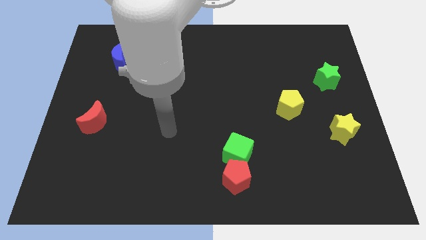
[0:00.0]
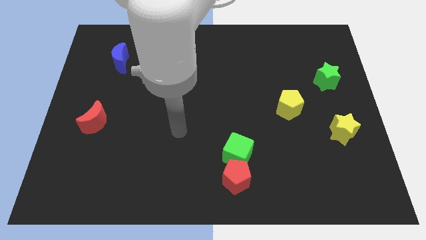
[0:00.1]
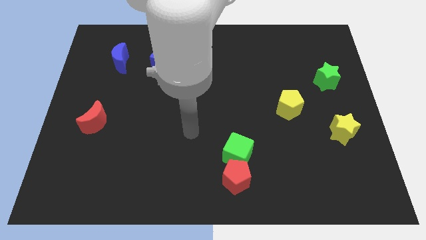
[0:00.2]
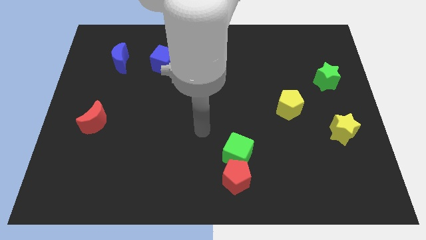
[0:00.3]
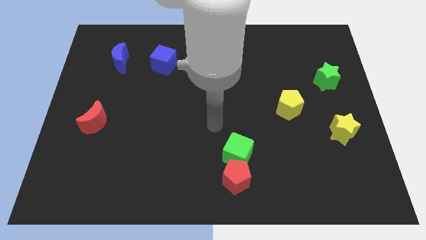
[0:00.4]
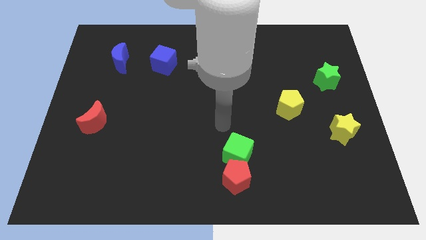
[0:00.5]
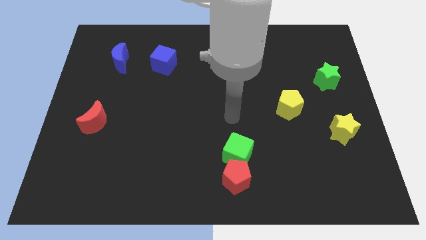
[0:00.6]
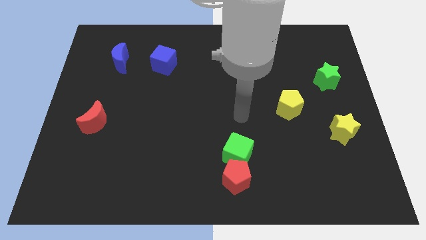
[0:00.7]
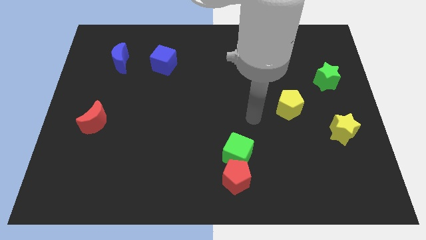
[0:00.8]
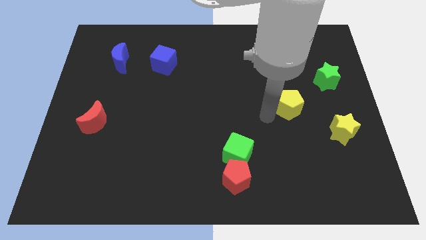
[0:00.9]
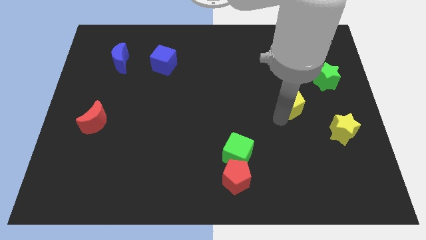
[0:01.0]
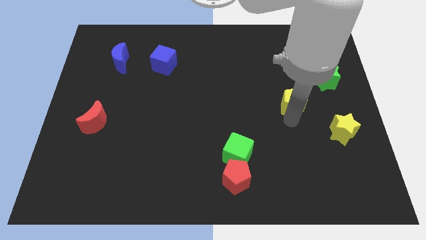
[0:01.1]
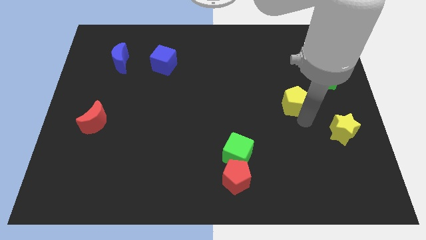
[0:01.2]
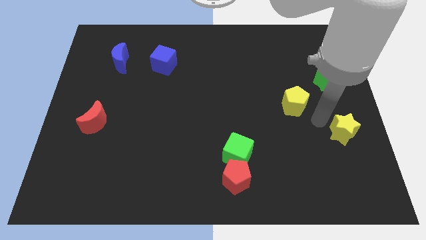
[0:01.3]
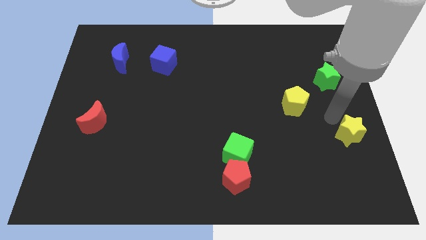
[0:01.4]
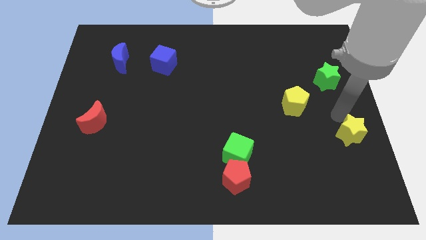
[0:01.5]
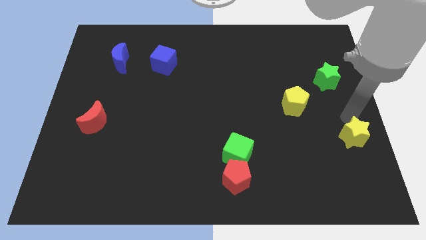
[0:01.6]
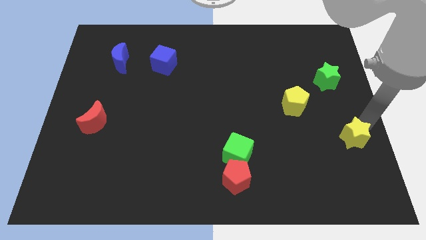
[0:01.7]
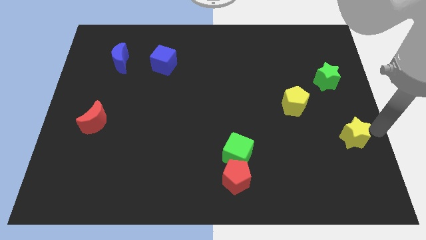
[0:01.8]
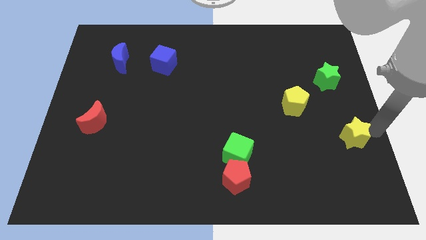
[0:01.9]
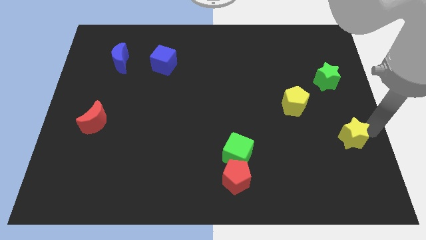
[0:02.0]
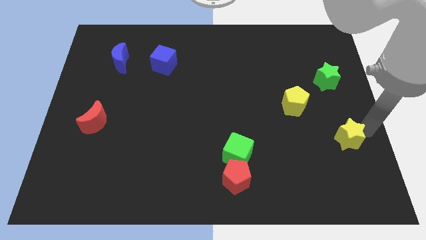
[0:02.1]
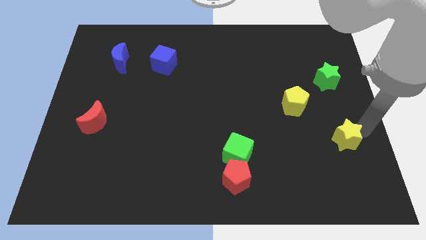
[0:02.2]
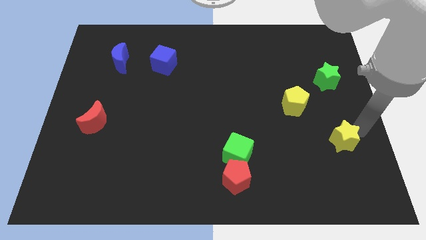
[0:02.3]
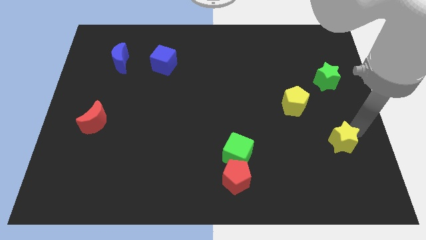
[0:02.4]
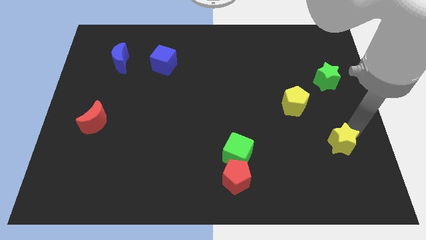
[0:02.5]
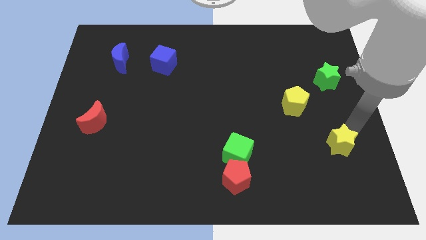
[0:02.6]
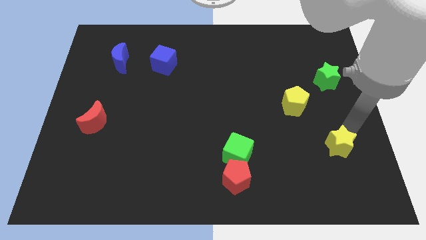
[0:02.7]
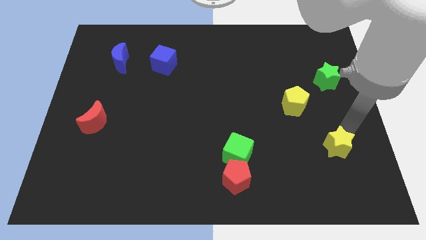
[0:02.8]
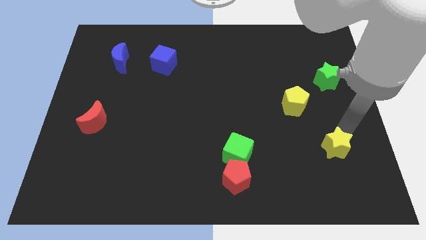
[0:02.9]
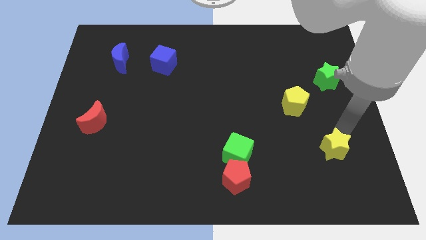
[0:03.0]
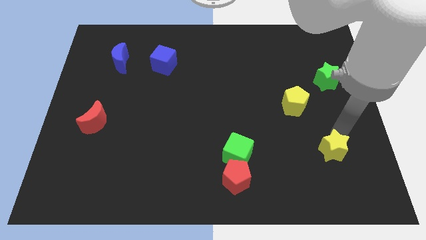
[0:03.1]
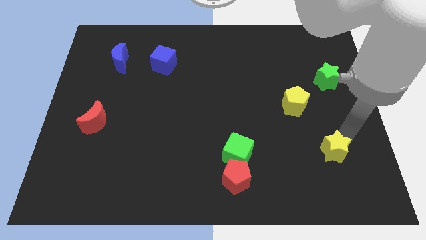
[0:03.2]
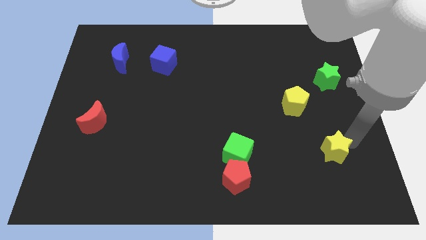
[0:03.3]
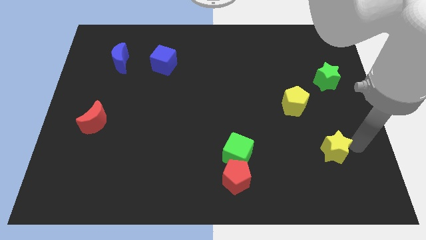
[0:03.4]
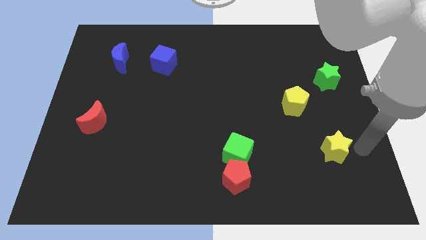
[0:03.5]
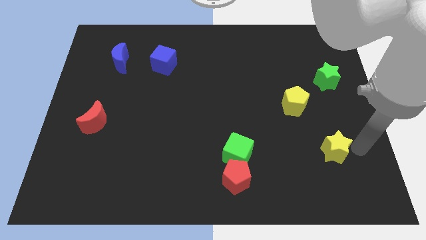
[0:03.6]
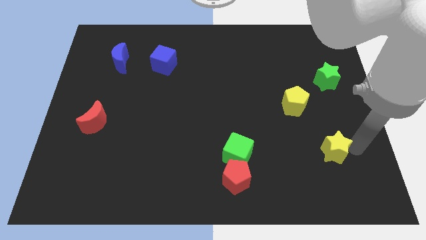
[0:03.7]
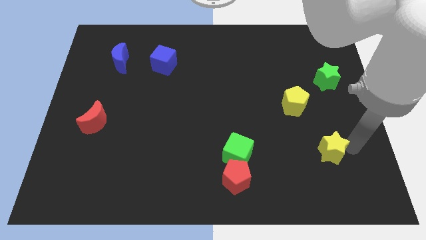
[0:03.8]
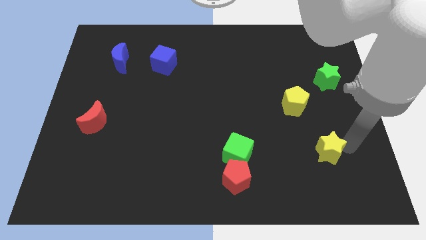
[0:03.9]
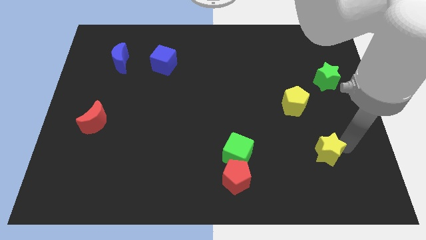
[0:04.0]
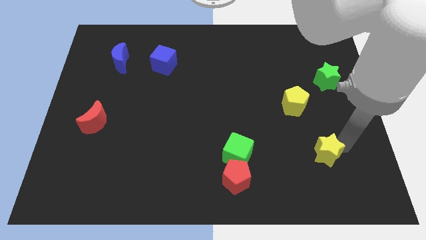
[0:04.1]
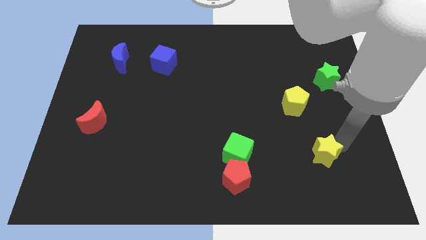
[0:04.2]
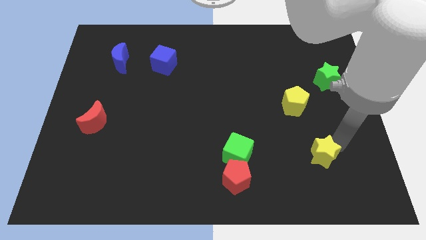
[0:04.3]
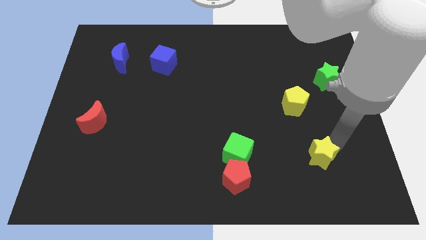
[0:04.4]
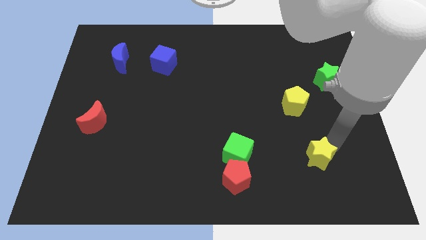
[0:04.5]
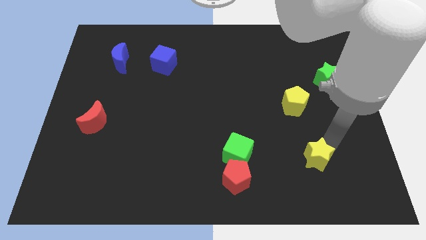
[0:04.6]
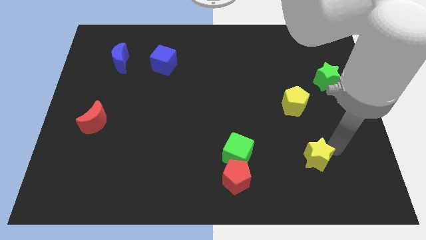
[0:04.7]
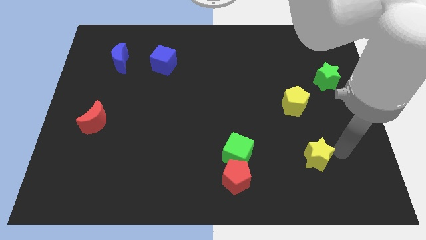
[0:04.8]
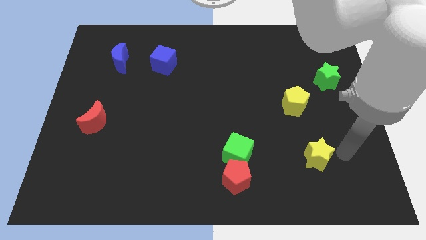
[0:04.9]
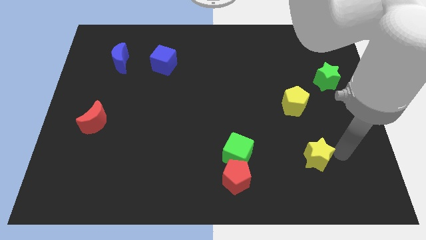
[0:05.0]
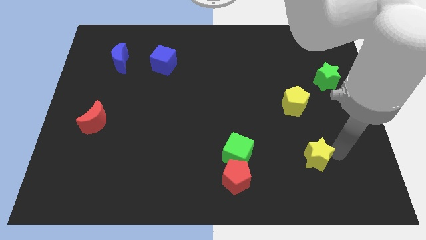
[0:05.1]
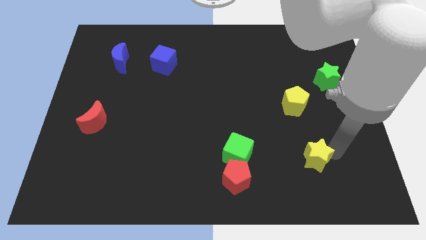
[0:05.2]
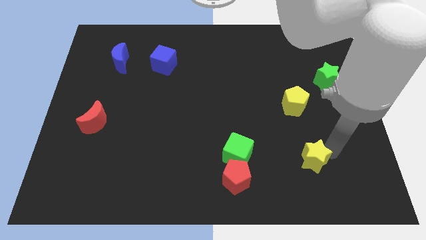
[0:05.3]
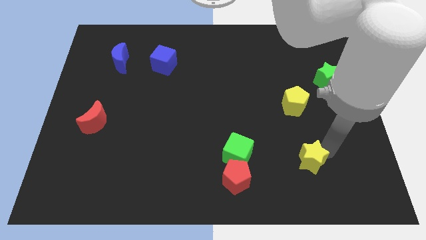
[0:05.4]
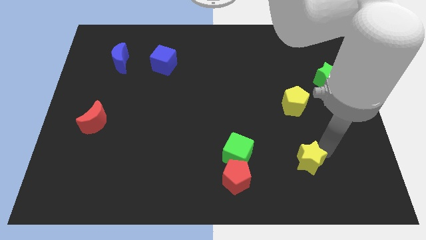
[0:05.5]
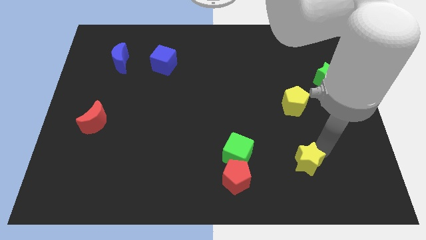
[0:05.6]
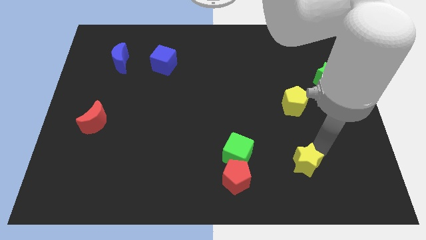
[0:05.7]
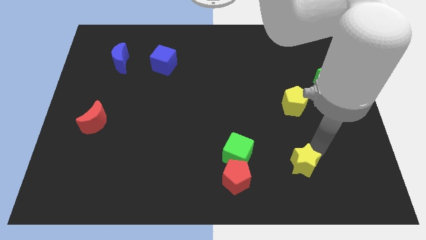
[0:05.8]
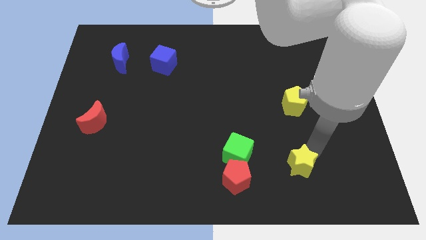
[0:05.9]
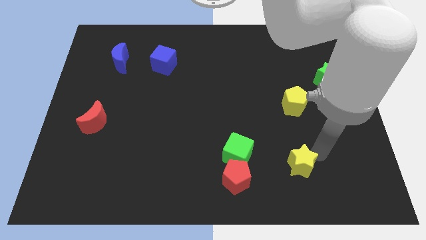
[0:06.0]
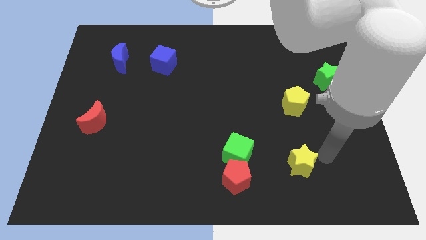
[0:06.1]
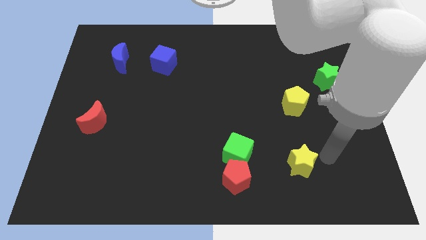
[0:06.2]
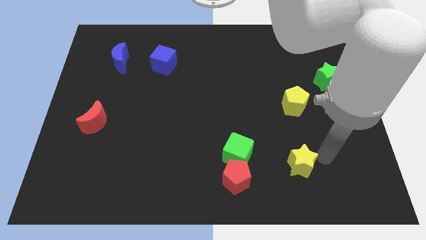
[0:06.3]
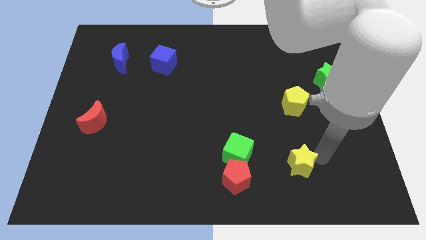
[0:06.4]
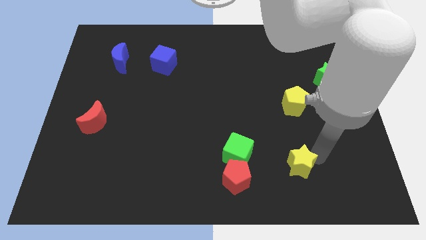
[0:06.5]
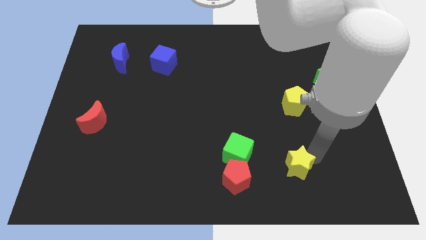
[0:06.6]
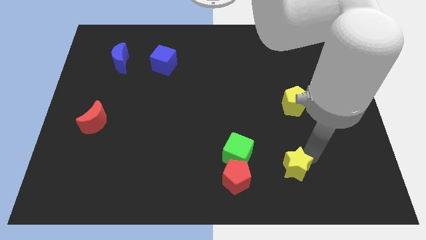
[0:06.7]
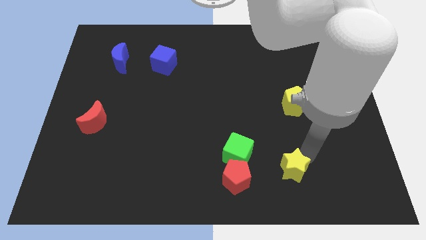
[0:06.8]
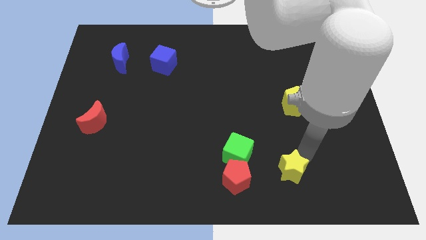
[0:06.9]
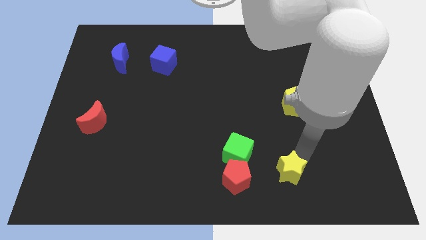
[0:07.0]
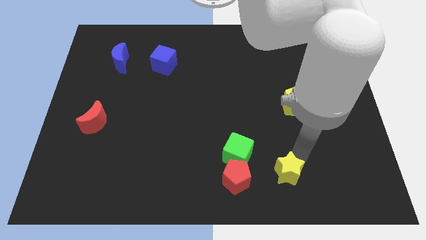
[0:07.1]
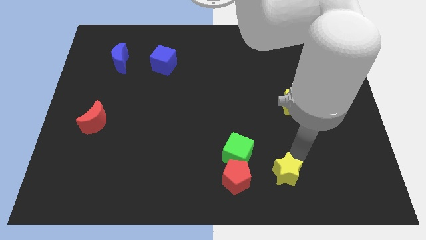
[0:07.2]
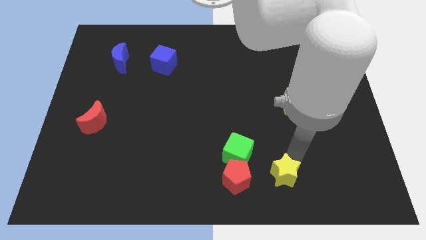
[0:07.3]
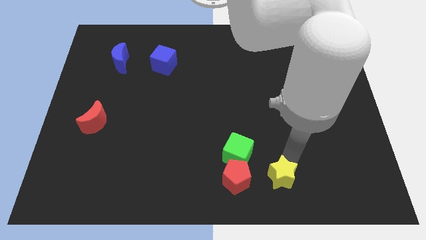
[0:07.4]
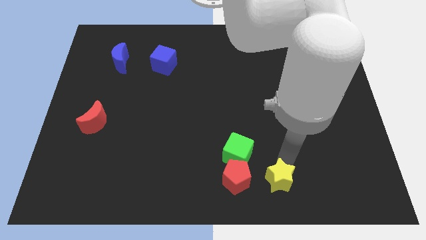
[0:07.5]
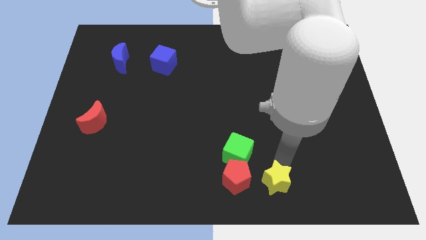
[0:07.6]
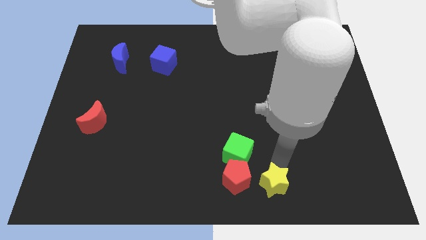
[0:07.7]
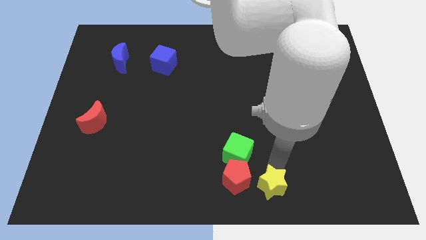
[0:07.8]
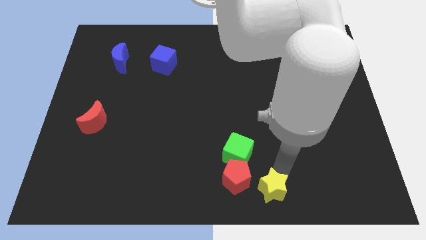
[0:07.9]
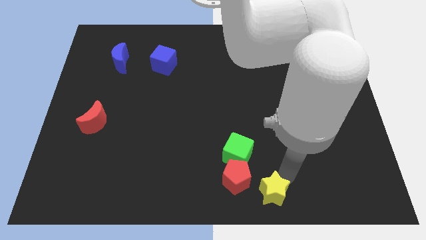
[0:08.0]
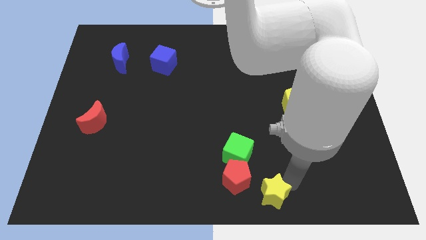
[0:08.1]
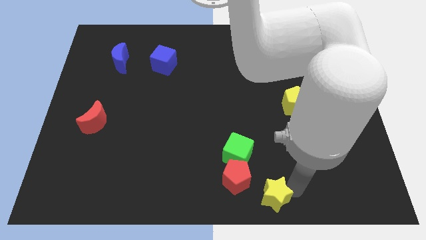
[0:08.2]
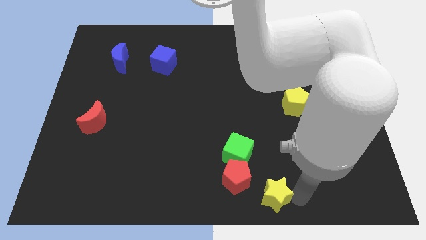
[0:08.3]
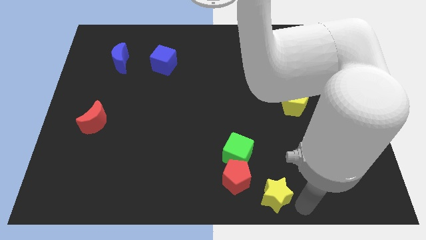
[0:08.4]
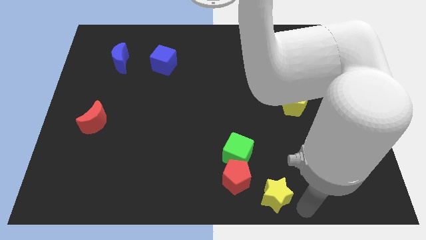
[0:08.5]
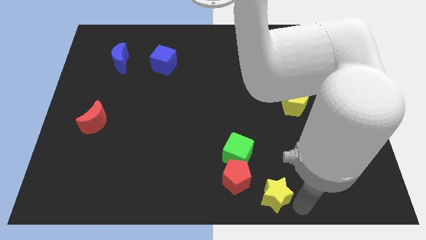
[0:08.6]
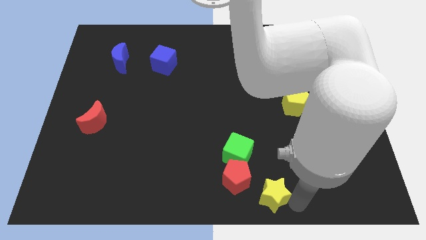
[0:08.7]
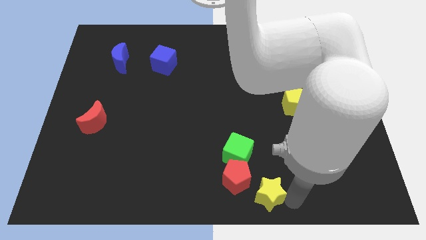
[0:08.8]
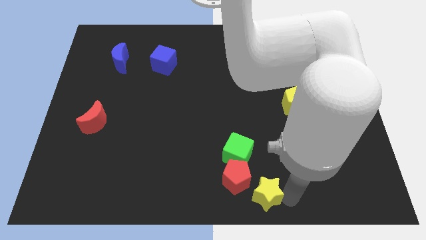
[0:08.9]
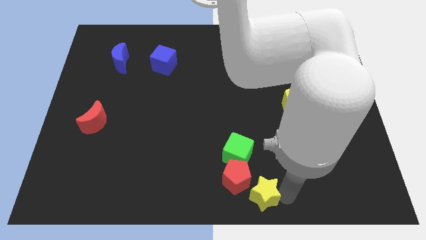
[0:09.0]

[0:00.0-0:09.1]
move the yellow star next to the red pentagon
